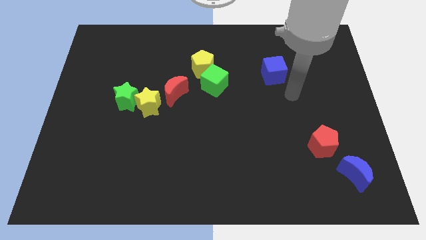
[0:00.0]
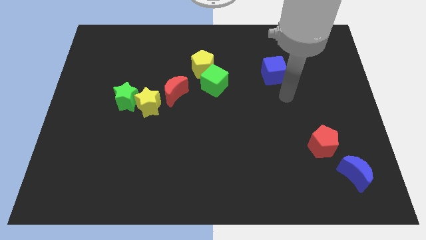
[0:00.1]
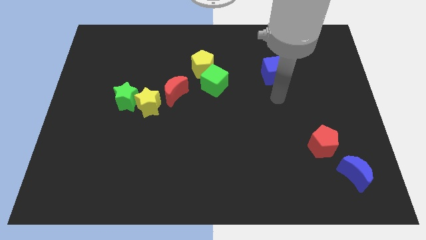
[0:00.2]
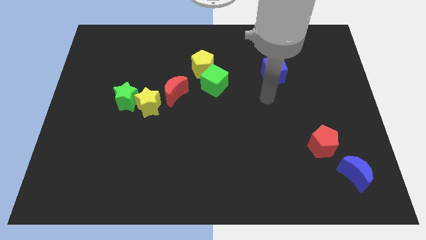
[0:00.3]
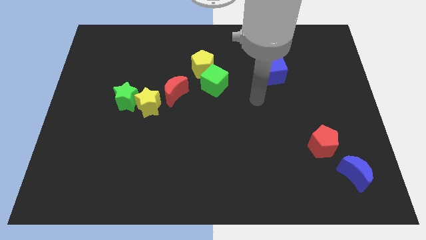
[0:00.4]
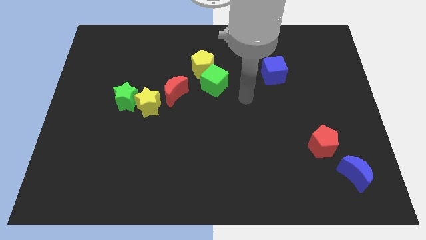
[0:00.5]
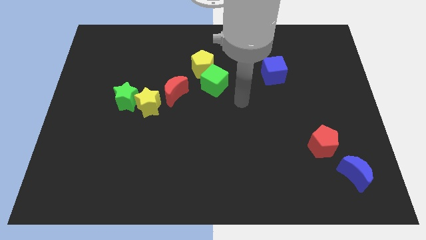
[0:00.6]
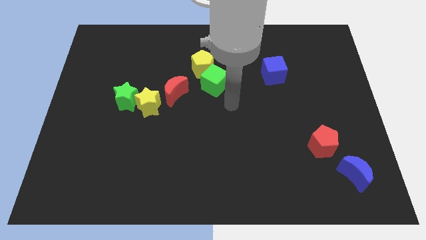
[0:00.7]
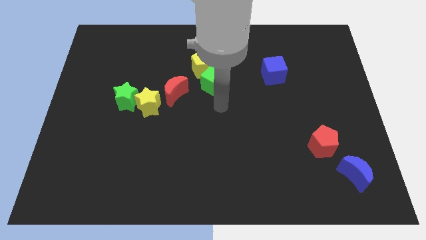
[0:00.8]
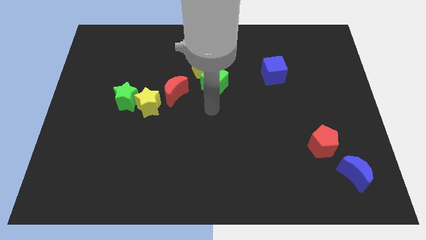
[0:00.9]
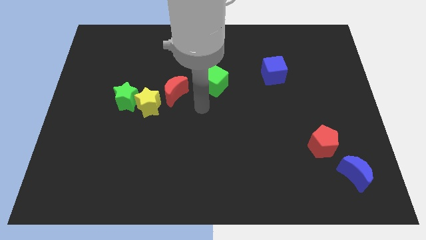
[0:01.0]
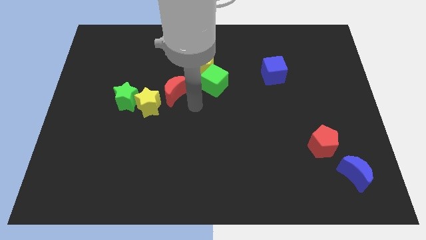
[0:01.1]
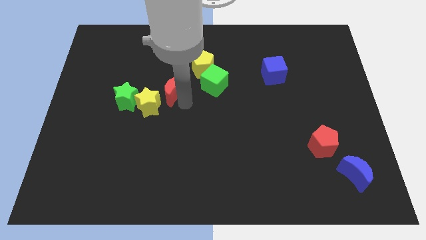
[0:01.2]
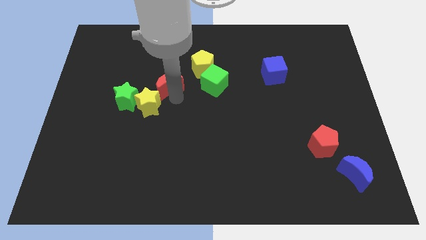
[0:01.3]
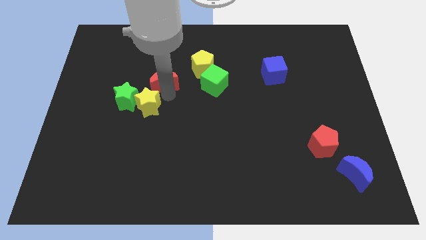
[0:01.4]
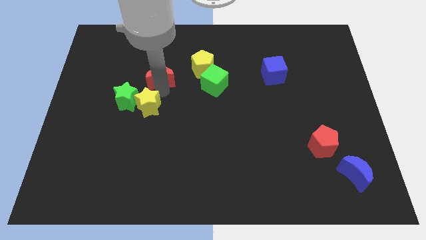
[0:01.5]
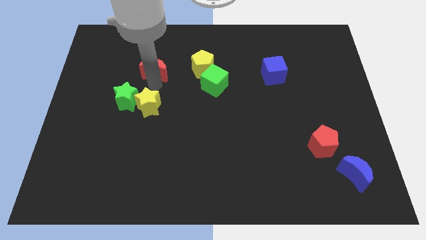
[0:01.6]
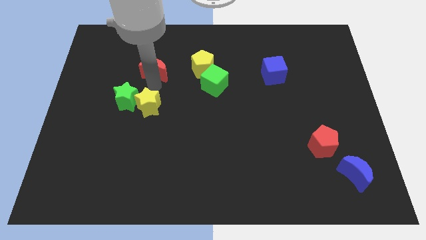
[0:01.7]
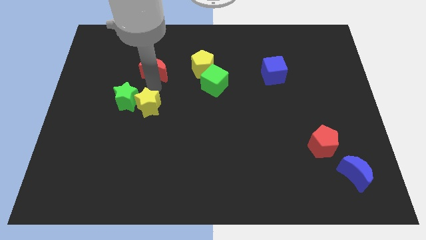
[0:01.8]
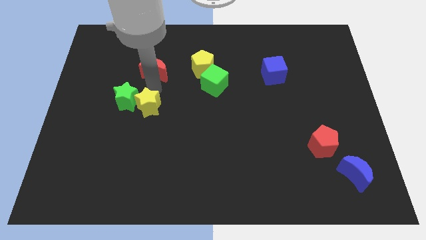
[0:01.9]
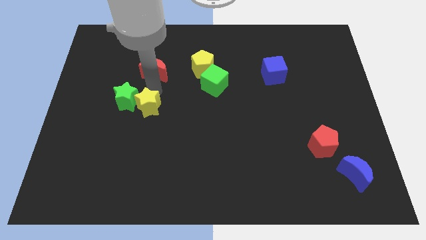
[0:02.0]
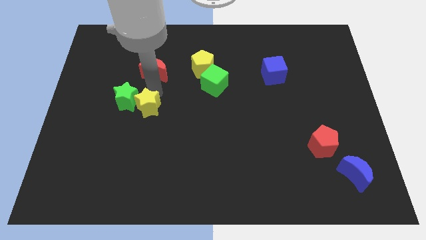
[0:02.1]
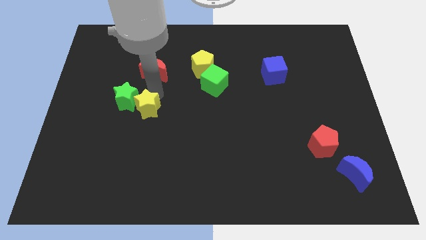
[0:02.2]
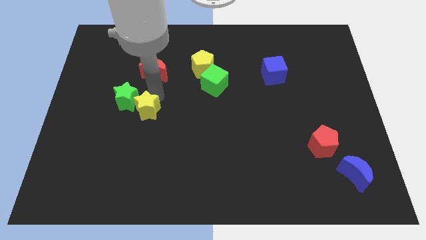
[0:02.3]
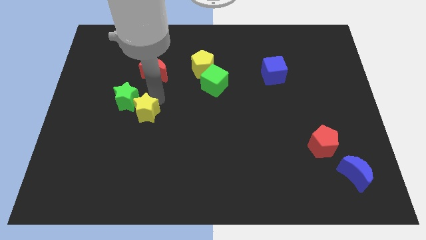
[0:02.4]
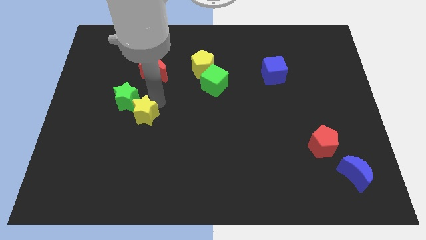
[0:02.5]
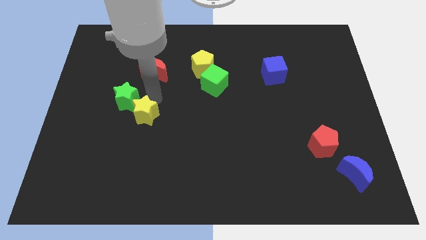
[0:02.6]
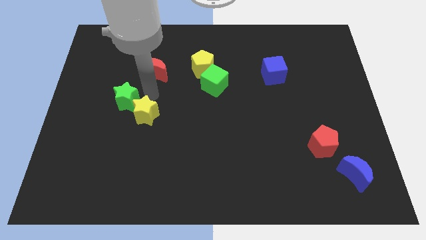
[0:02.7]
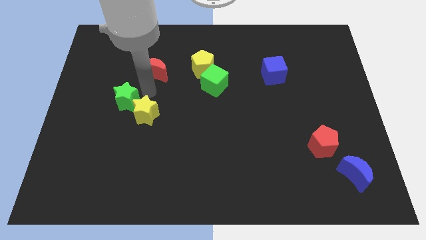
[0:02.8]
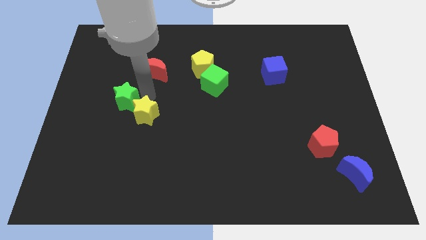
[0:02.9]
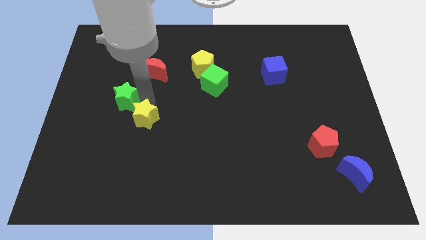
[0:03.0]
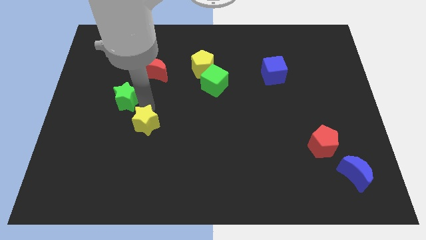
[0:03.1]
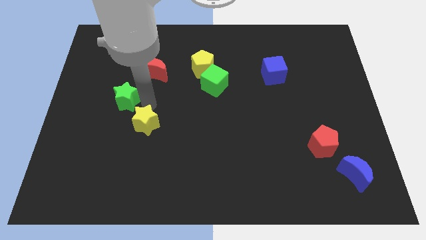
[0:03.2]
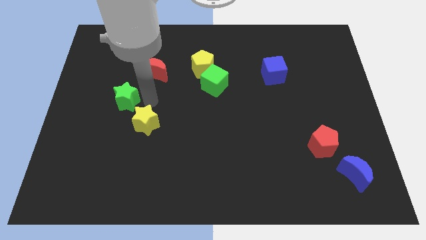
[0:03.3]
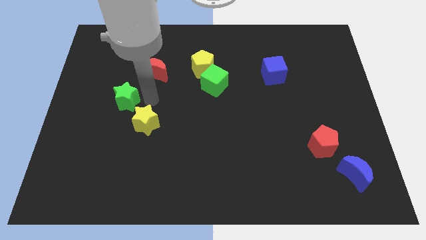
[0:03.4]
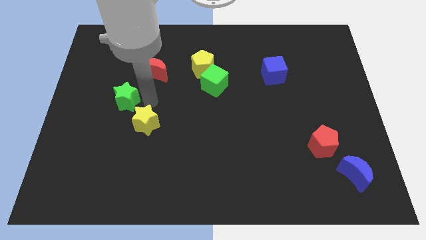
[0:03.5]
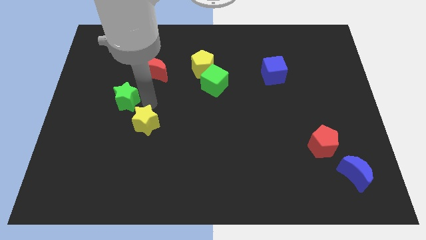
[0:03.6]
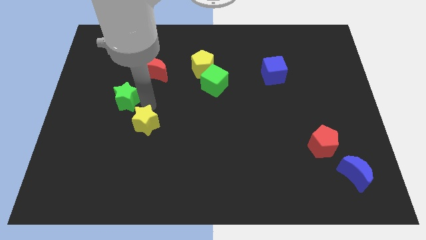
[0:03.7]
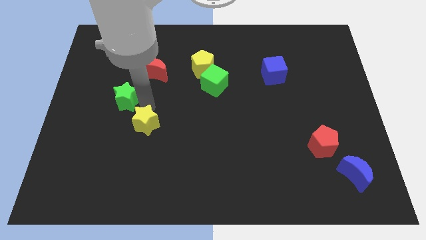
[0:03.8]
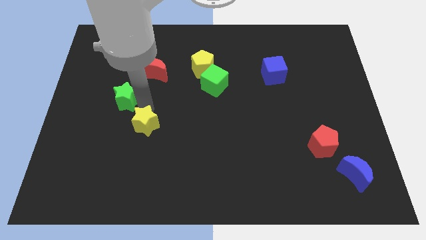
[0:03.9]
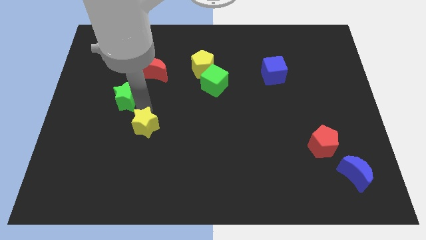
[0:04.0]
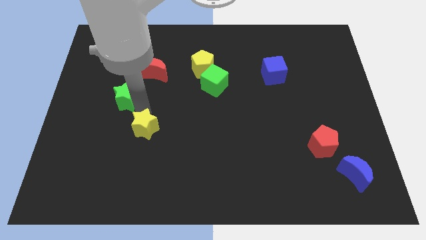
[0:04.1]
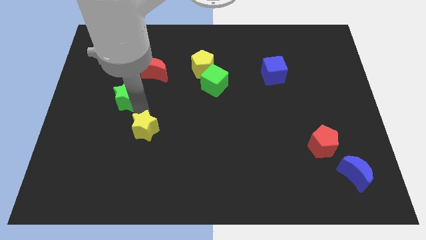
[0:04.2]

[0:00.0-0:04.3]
slide the yellow star downwards a bit

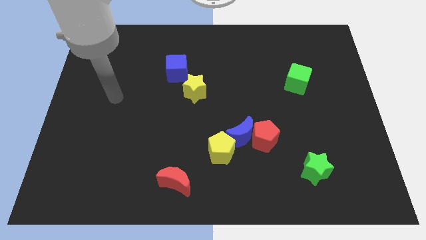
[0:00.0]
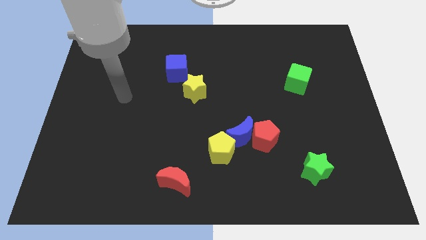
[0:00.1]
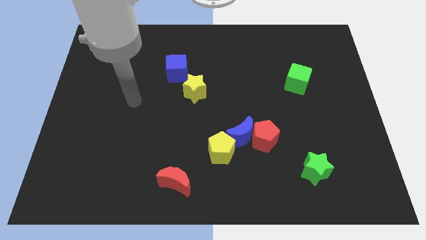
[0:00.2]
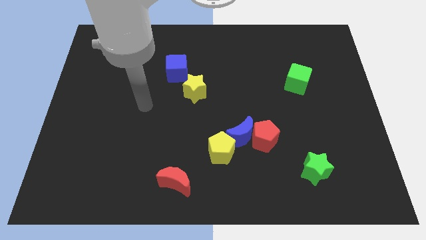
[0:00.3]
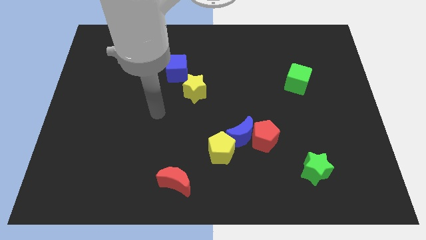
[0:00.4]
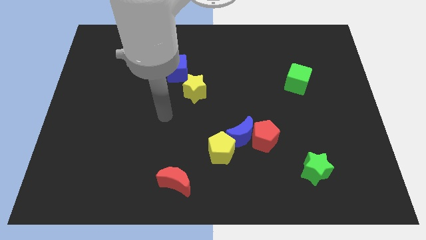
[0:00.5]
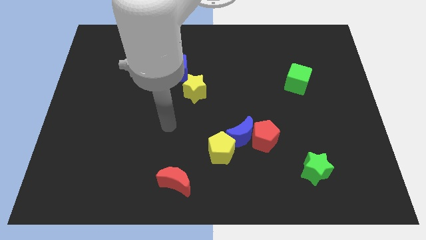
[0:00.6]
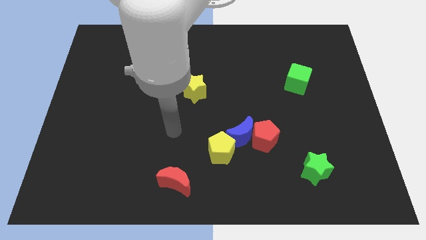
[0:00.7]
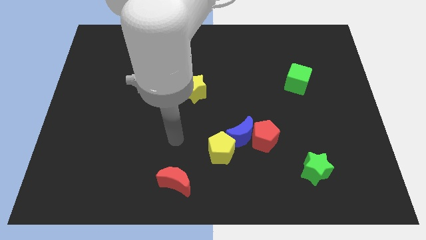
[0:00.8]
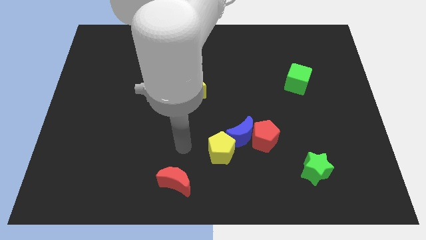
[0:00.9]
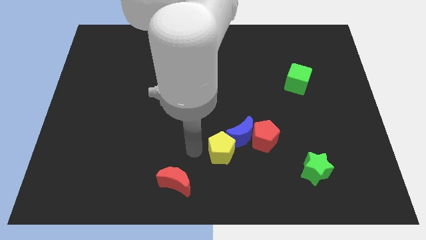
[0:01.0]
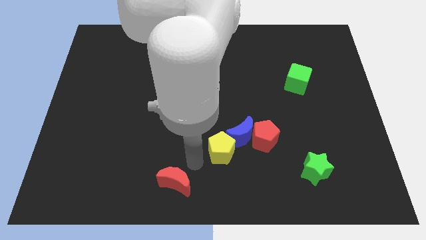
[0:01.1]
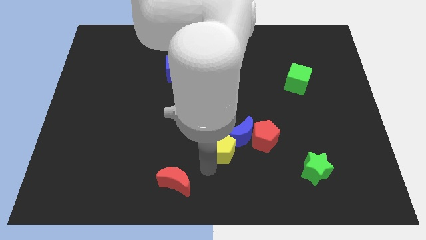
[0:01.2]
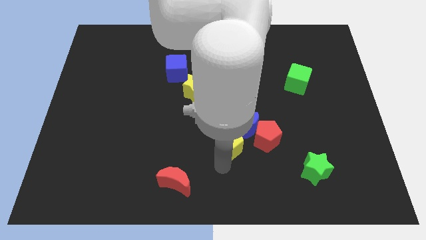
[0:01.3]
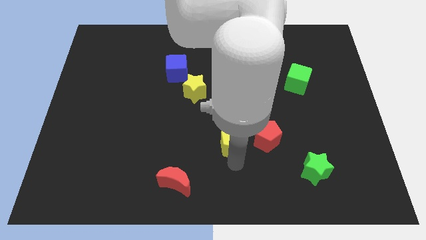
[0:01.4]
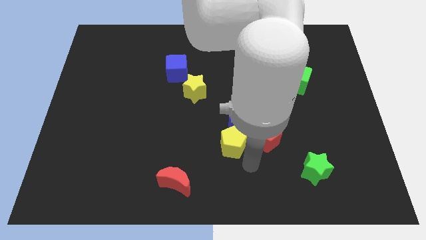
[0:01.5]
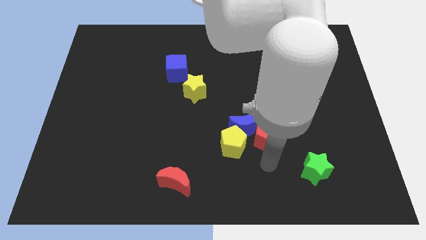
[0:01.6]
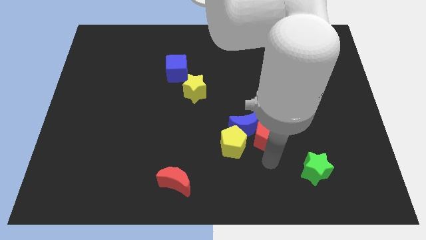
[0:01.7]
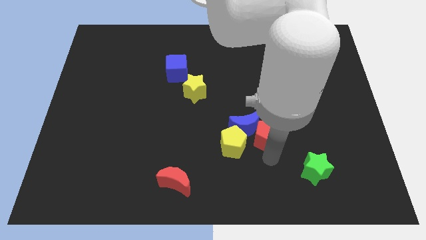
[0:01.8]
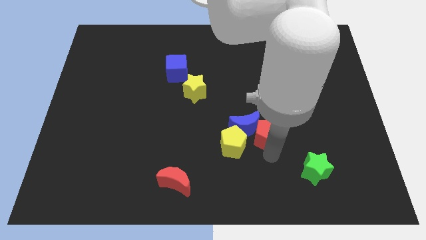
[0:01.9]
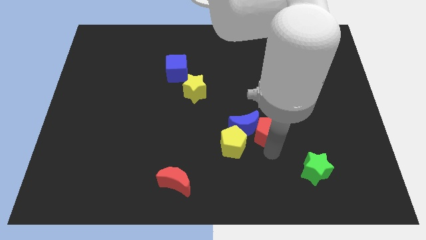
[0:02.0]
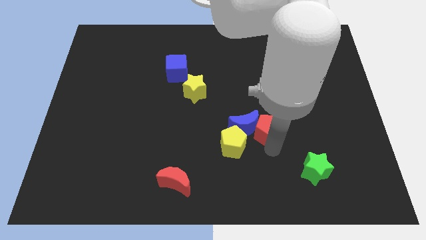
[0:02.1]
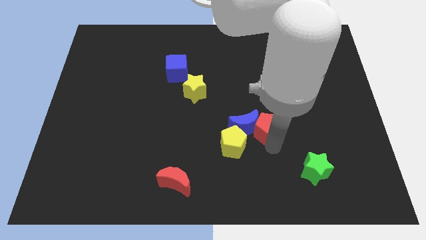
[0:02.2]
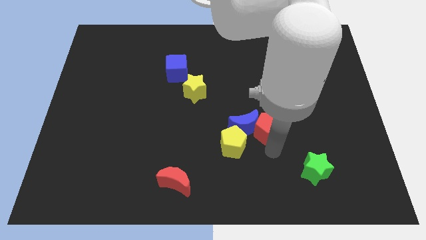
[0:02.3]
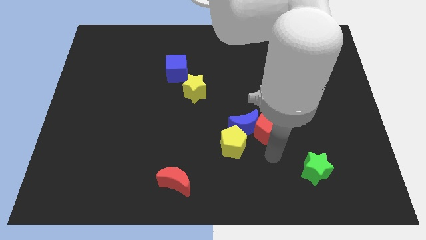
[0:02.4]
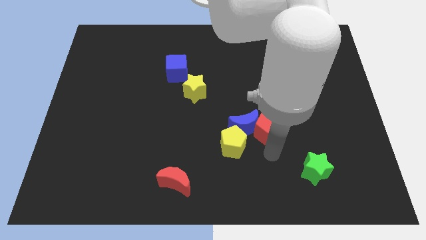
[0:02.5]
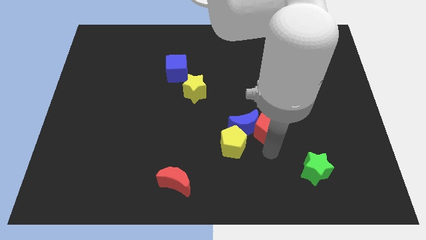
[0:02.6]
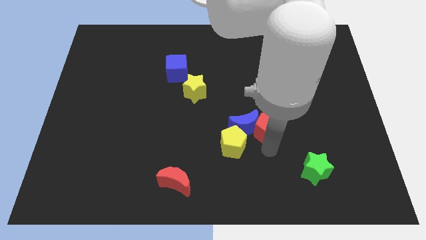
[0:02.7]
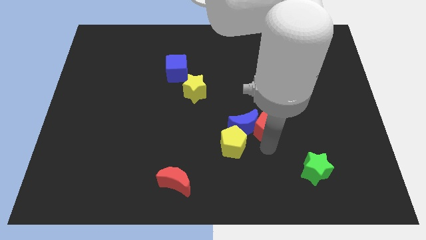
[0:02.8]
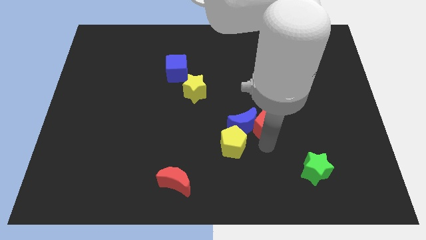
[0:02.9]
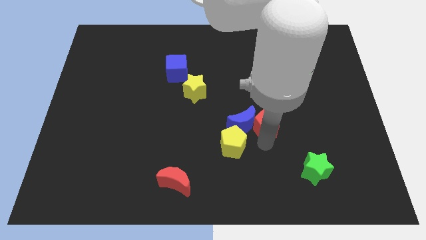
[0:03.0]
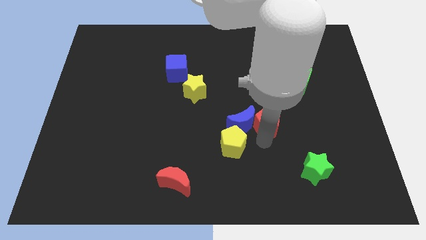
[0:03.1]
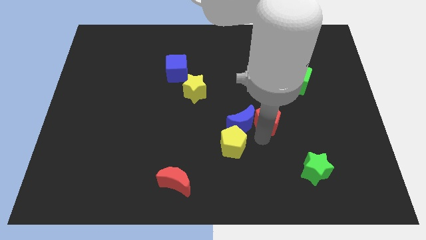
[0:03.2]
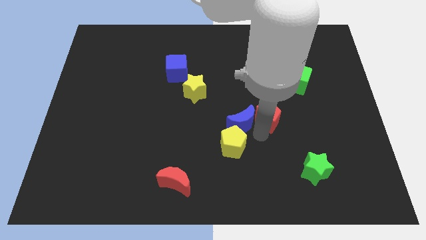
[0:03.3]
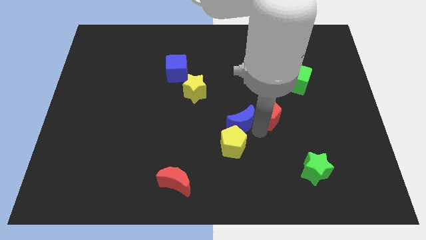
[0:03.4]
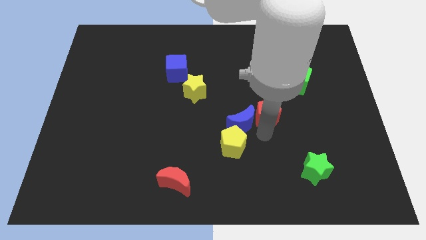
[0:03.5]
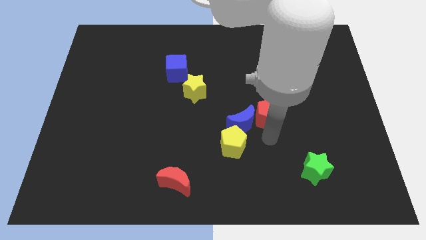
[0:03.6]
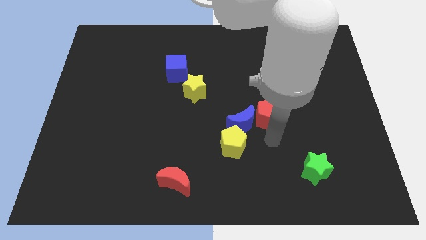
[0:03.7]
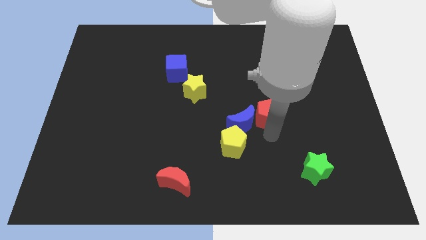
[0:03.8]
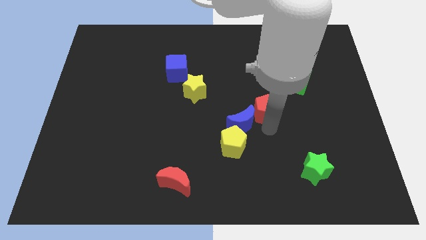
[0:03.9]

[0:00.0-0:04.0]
slightly push the red pentagon upwards
